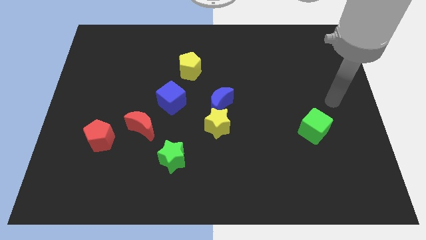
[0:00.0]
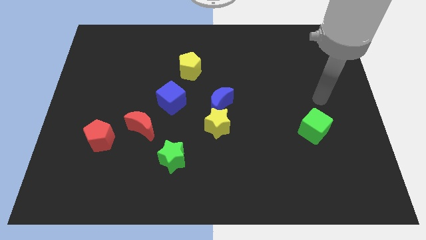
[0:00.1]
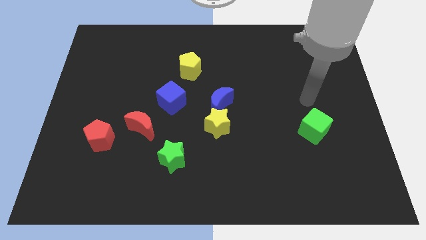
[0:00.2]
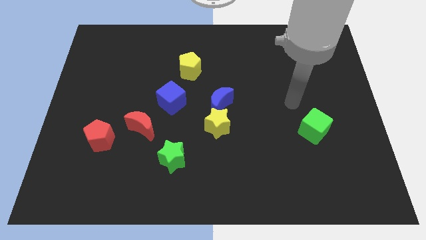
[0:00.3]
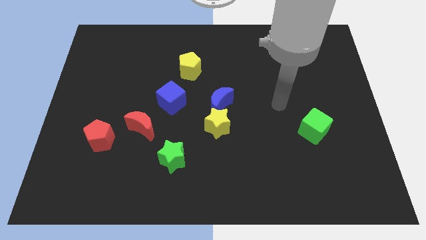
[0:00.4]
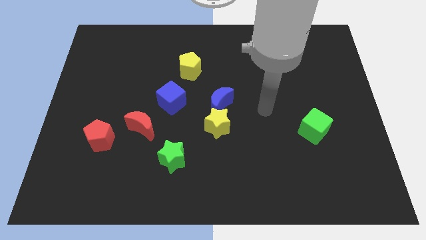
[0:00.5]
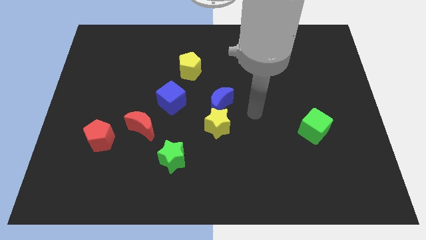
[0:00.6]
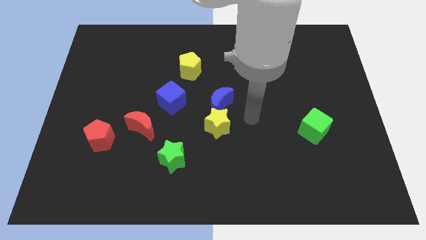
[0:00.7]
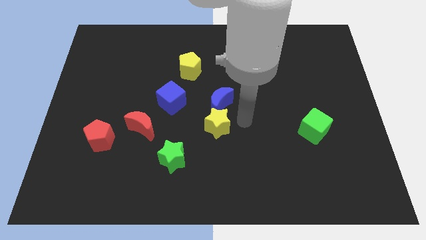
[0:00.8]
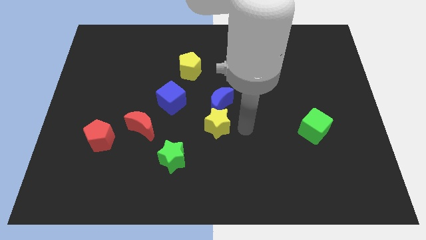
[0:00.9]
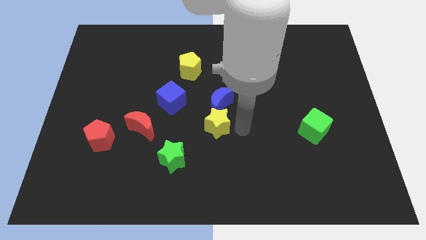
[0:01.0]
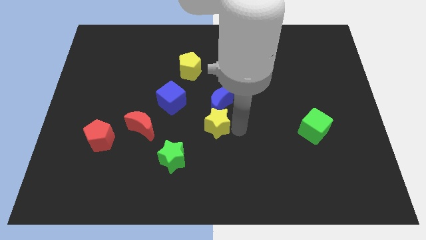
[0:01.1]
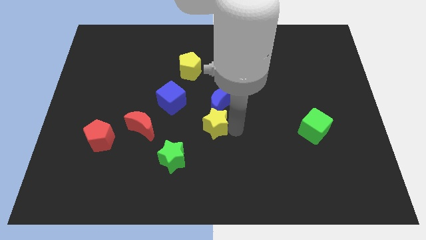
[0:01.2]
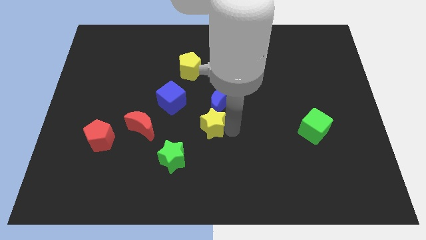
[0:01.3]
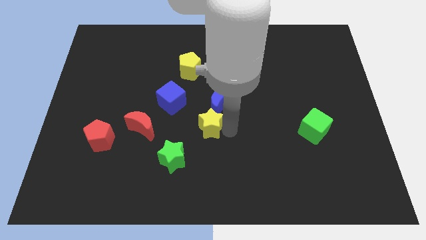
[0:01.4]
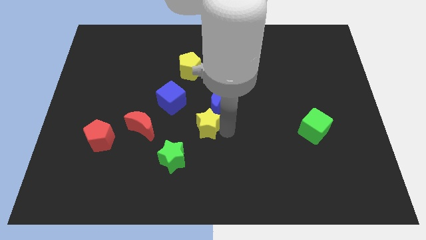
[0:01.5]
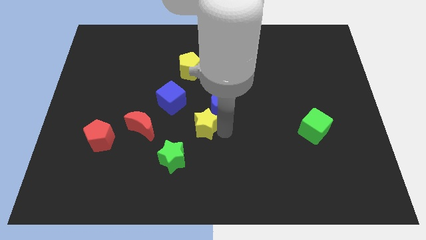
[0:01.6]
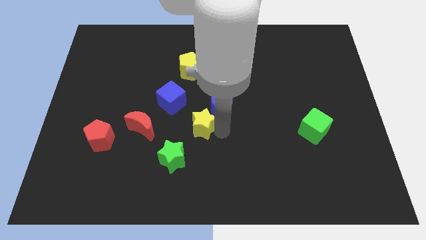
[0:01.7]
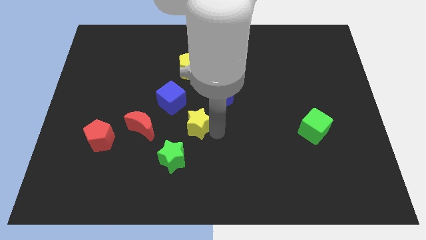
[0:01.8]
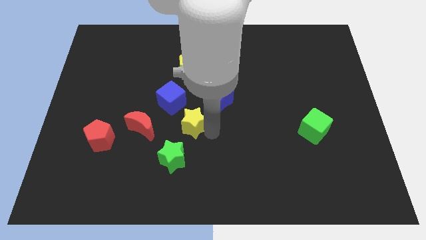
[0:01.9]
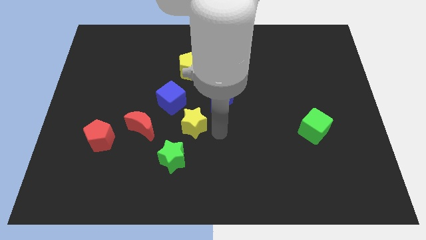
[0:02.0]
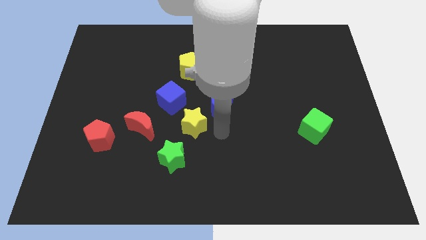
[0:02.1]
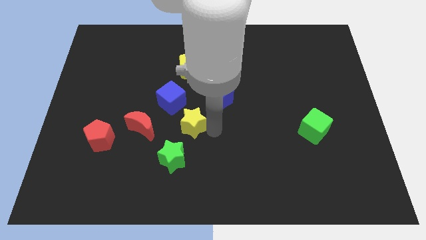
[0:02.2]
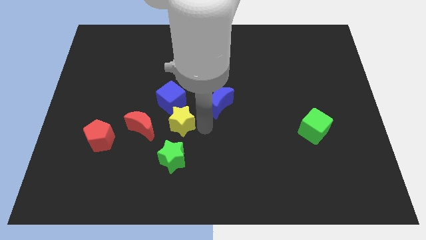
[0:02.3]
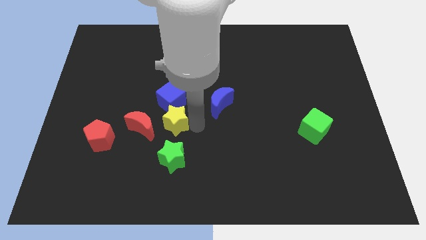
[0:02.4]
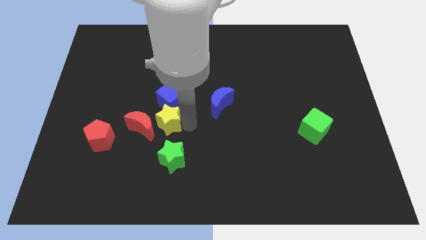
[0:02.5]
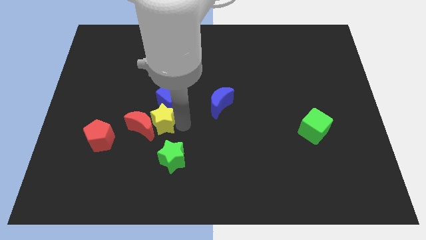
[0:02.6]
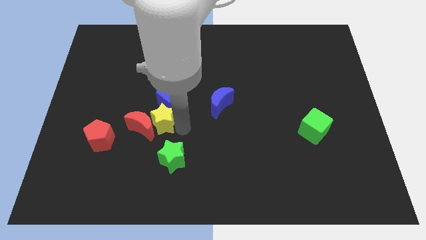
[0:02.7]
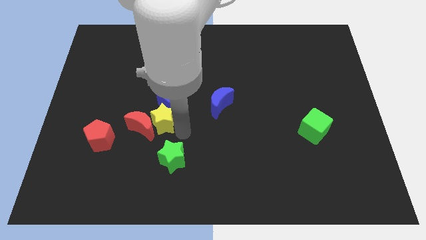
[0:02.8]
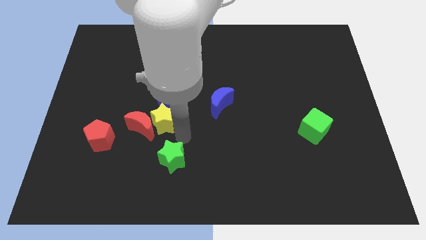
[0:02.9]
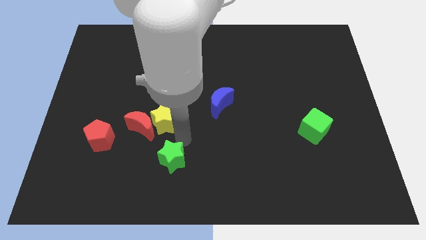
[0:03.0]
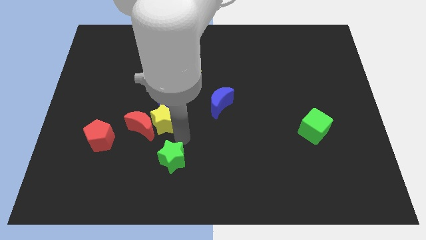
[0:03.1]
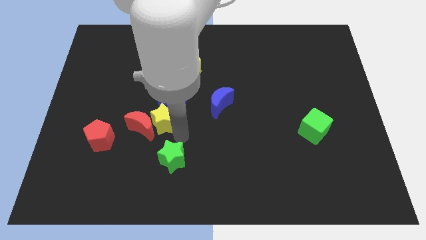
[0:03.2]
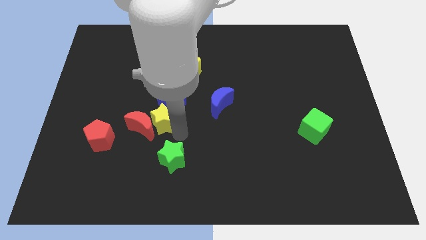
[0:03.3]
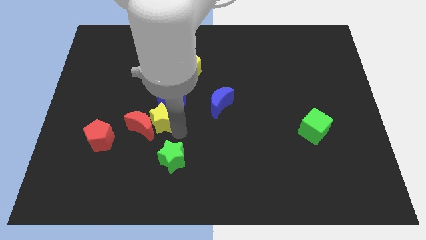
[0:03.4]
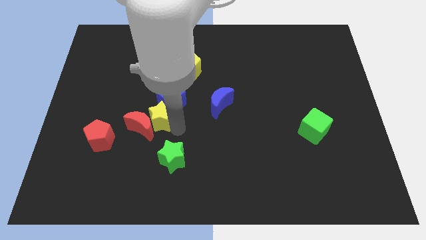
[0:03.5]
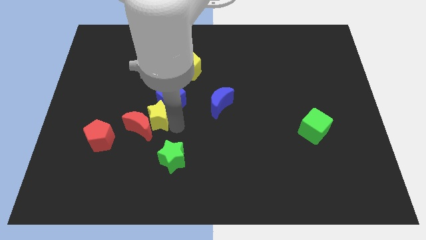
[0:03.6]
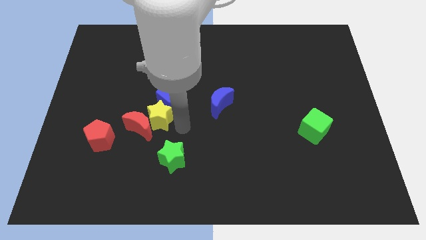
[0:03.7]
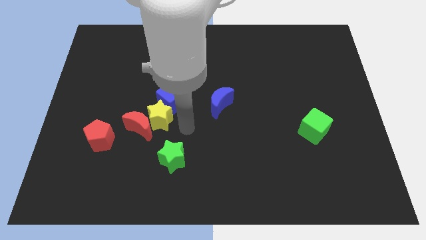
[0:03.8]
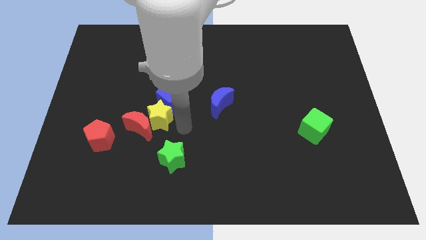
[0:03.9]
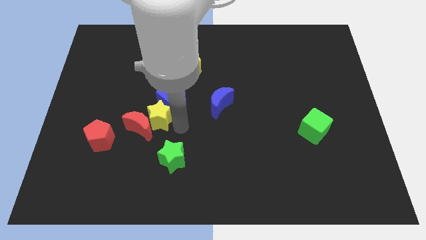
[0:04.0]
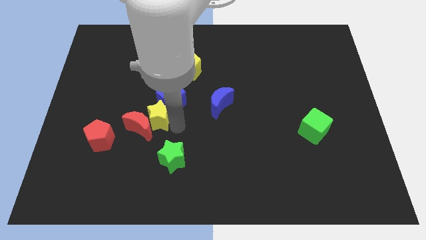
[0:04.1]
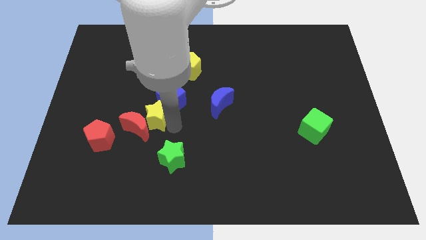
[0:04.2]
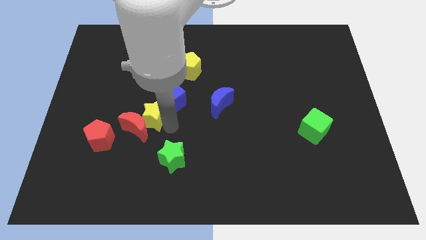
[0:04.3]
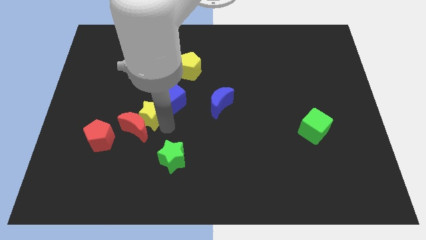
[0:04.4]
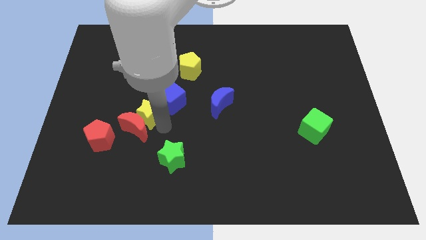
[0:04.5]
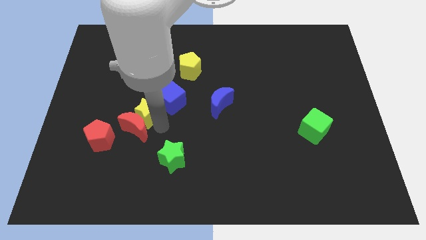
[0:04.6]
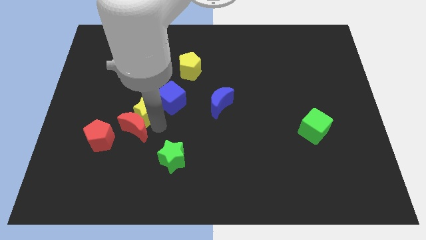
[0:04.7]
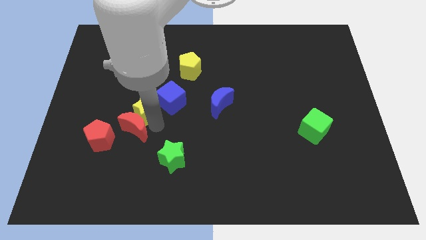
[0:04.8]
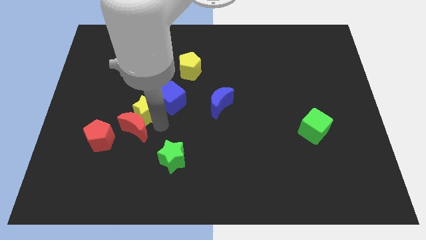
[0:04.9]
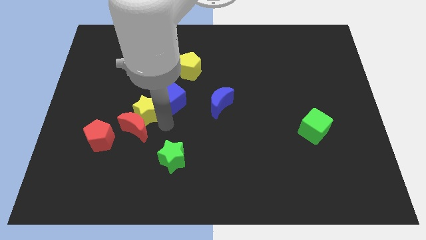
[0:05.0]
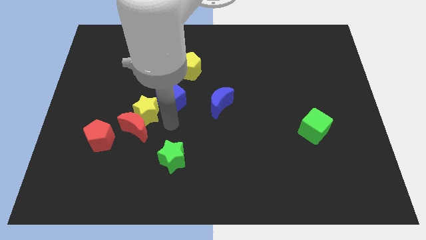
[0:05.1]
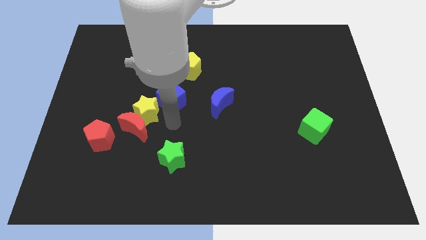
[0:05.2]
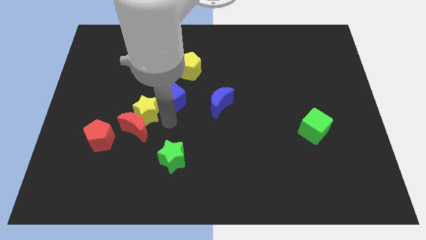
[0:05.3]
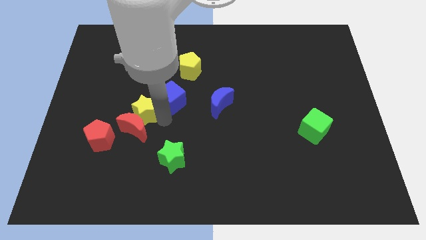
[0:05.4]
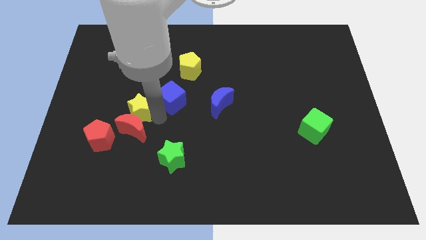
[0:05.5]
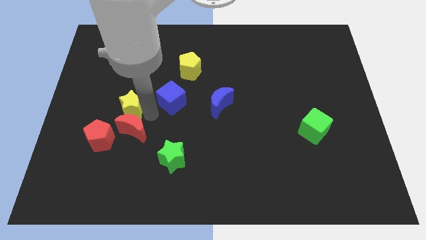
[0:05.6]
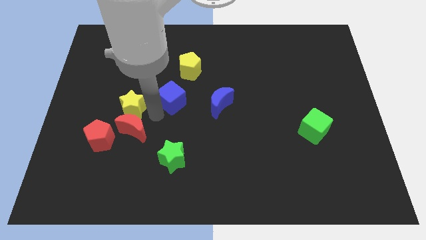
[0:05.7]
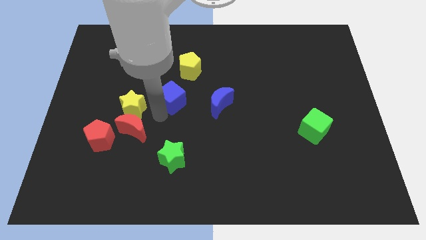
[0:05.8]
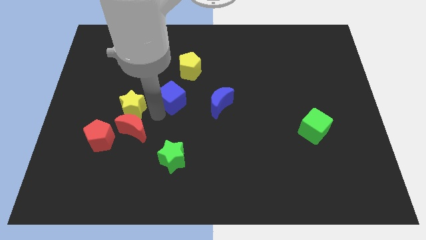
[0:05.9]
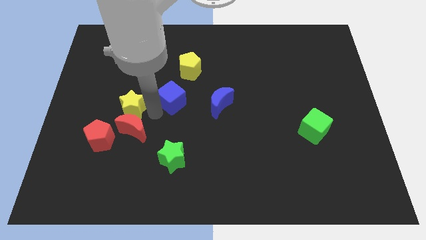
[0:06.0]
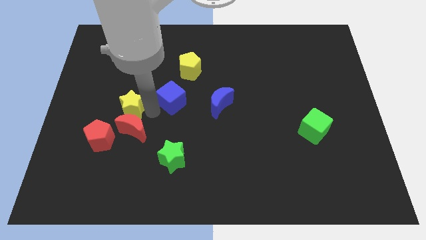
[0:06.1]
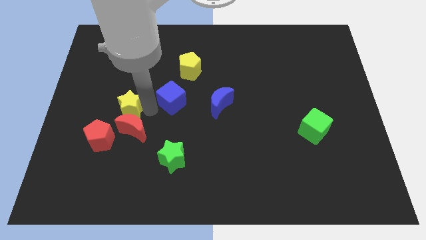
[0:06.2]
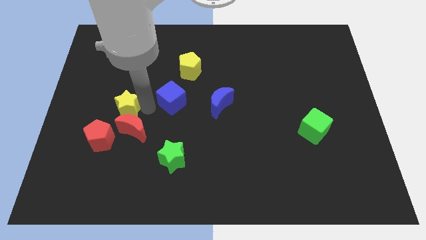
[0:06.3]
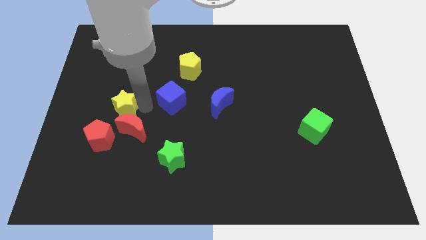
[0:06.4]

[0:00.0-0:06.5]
put the yellow star to the top of the red pentagon
